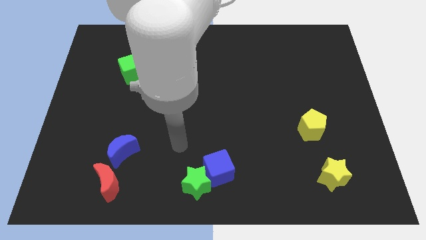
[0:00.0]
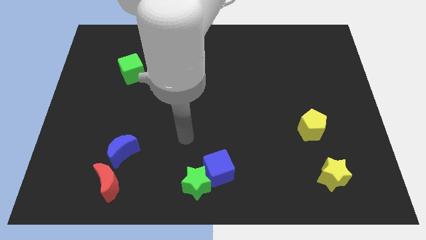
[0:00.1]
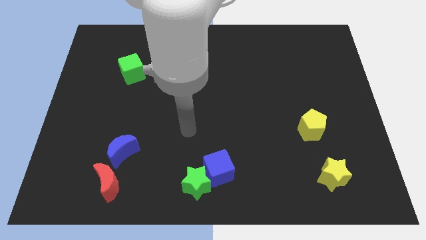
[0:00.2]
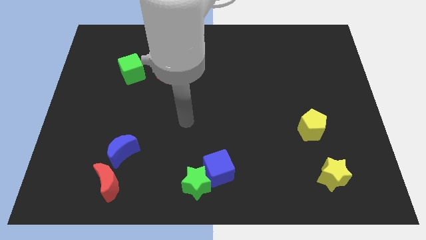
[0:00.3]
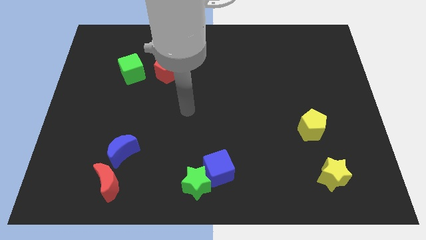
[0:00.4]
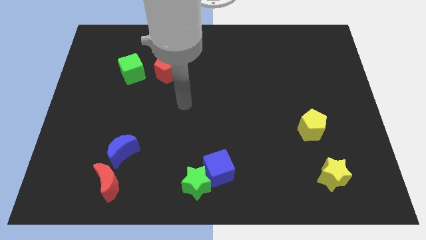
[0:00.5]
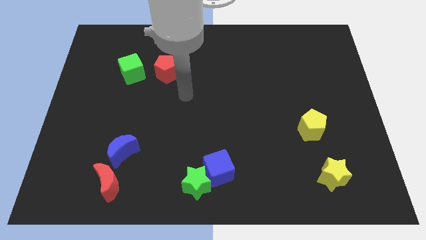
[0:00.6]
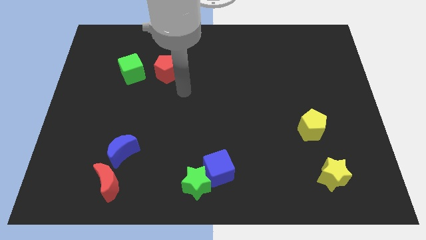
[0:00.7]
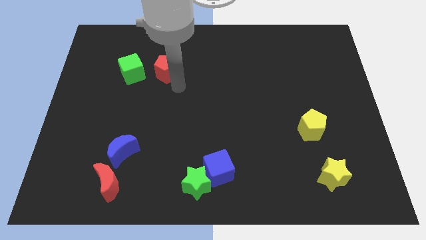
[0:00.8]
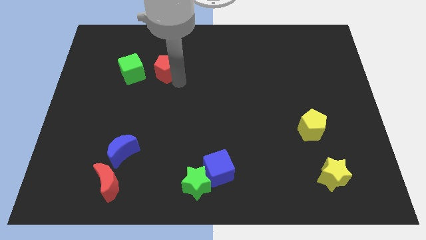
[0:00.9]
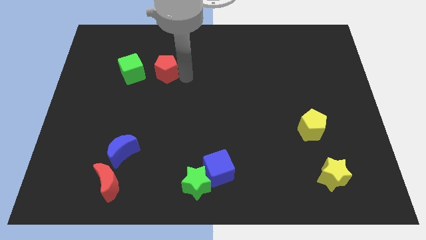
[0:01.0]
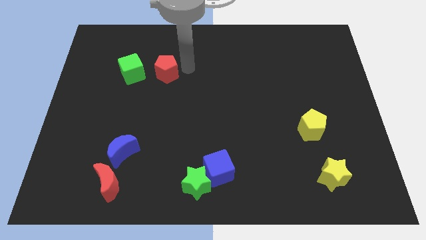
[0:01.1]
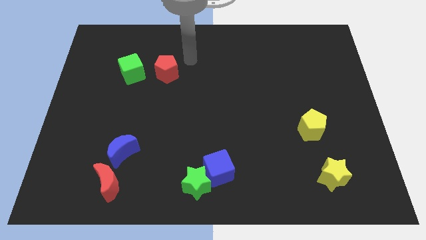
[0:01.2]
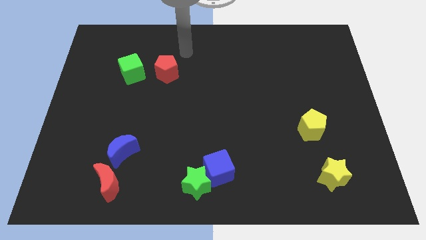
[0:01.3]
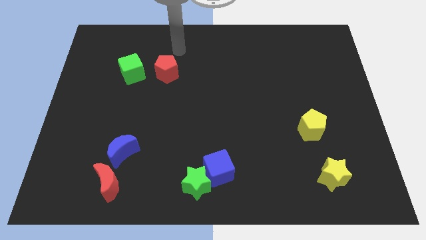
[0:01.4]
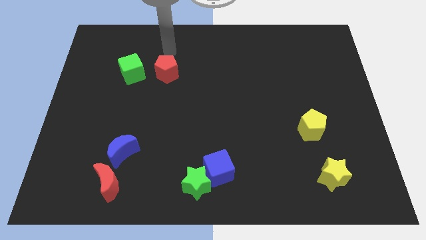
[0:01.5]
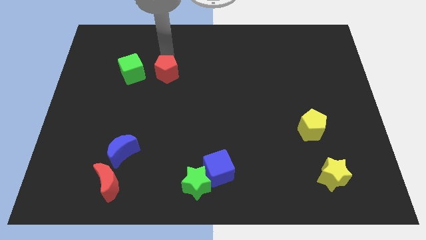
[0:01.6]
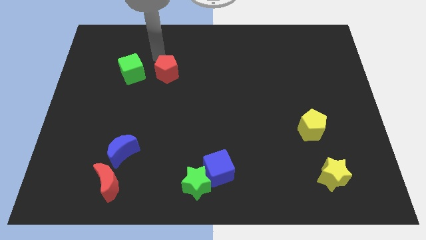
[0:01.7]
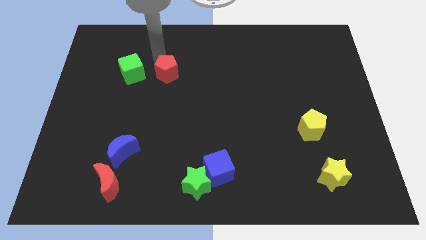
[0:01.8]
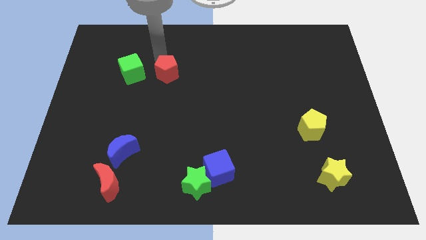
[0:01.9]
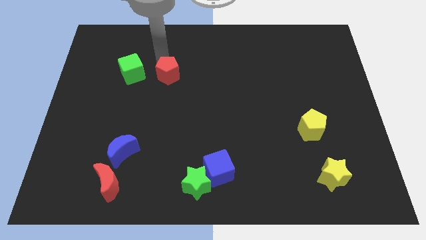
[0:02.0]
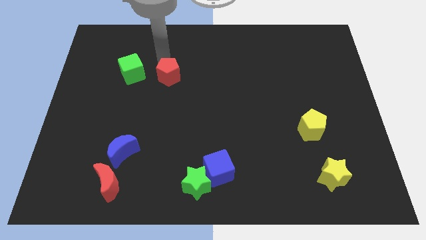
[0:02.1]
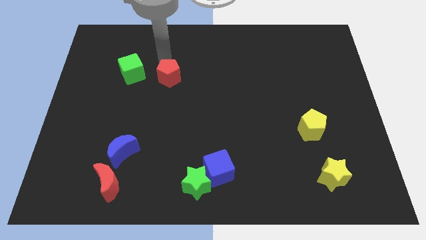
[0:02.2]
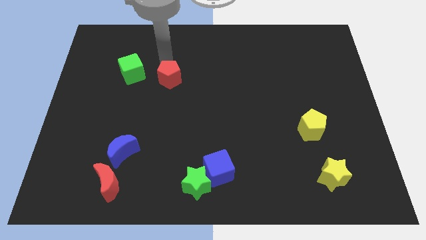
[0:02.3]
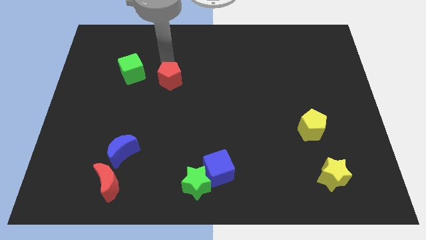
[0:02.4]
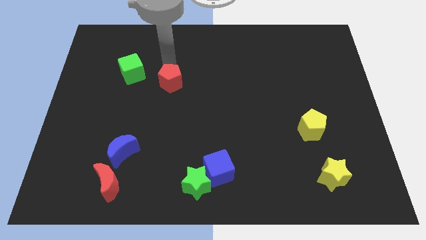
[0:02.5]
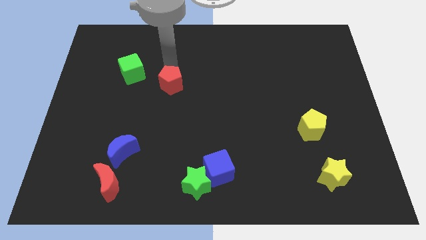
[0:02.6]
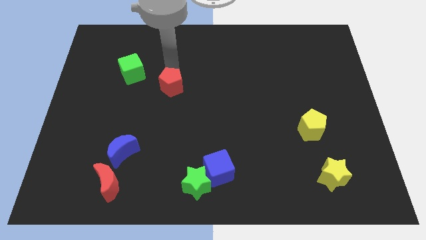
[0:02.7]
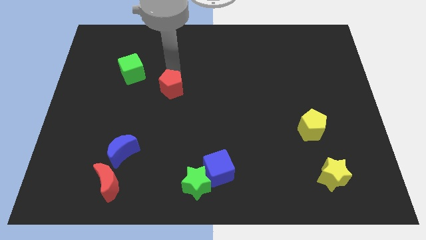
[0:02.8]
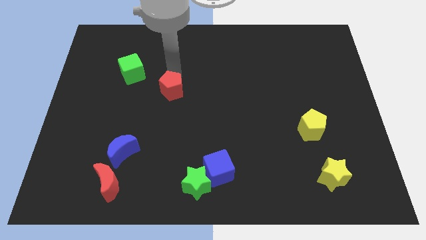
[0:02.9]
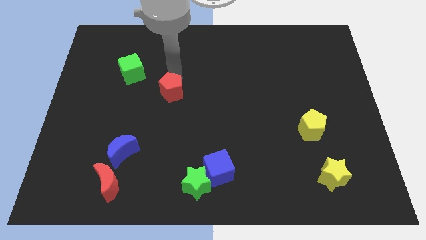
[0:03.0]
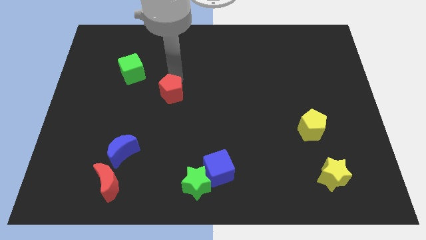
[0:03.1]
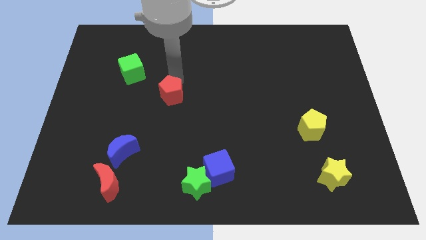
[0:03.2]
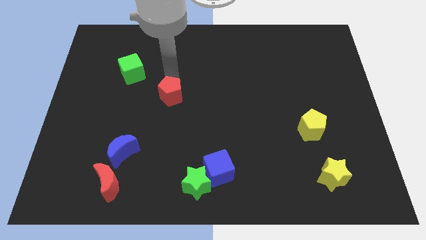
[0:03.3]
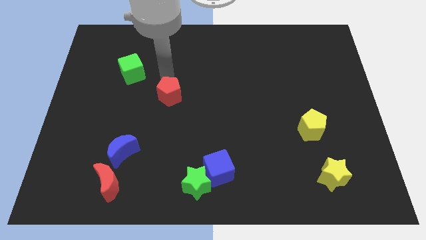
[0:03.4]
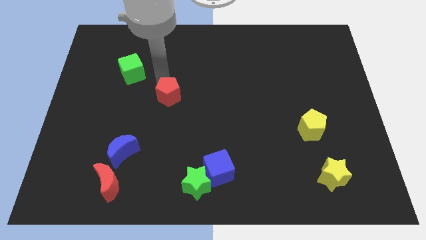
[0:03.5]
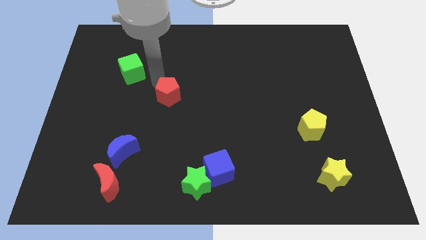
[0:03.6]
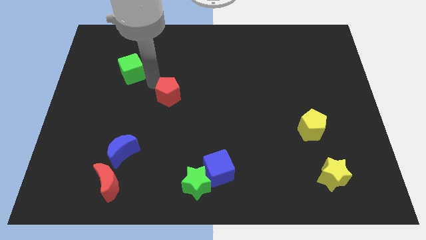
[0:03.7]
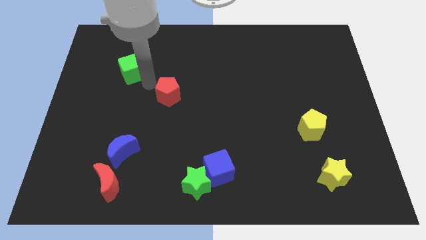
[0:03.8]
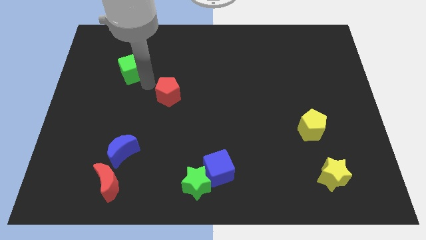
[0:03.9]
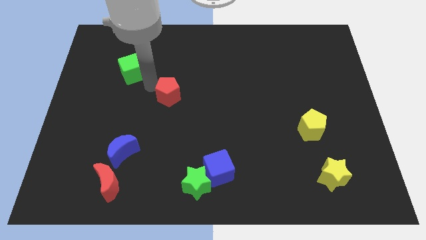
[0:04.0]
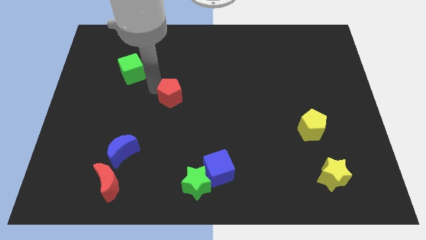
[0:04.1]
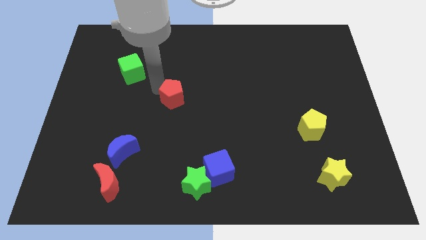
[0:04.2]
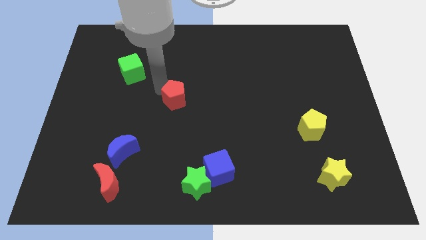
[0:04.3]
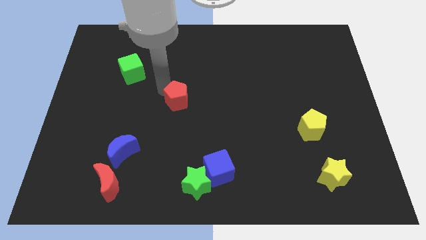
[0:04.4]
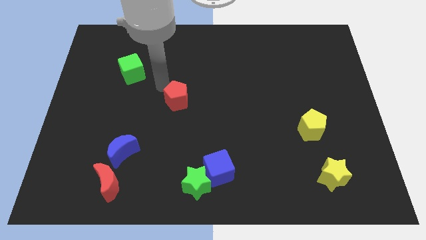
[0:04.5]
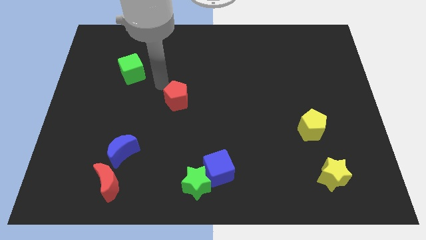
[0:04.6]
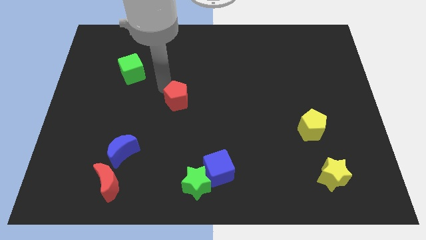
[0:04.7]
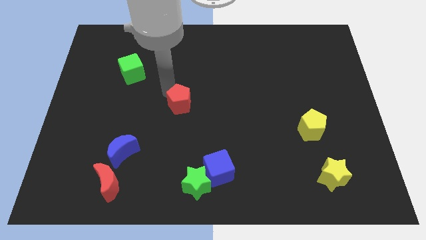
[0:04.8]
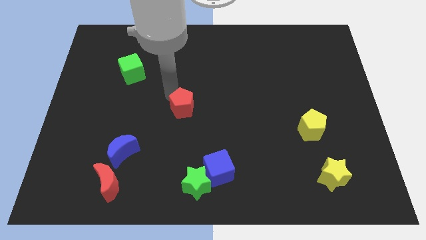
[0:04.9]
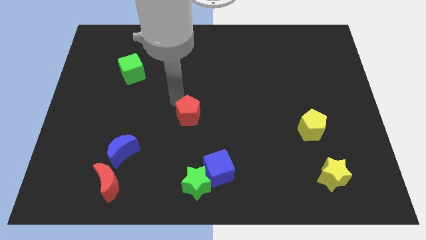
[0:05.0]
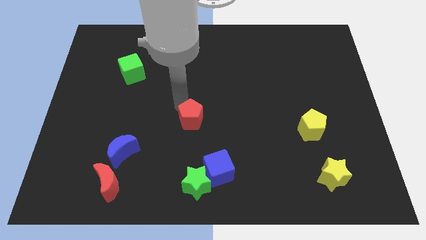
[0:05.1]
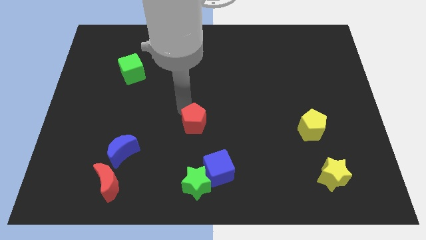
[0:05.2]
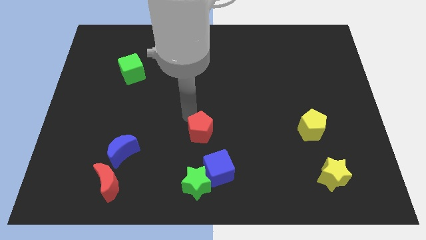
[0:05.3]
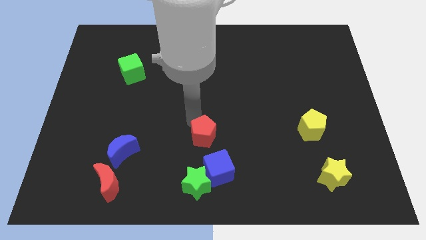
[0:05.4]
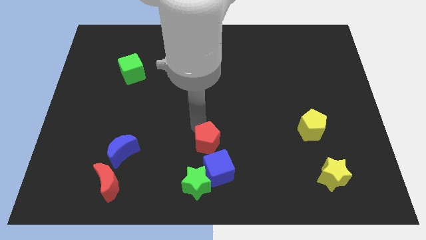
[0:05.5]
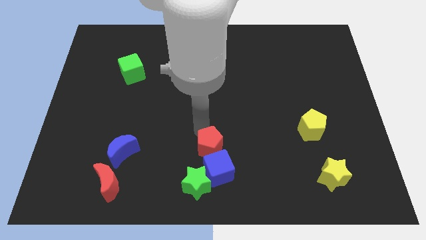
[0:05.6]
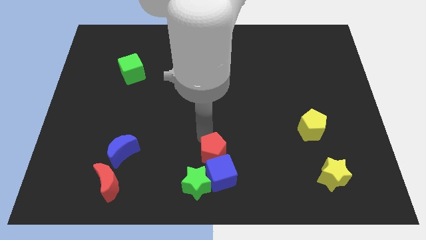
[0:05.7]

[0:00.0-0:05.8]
push the red pentagon to the blue cube

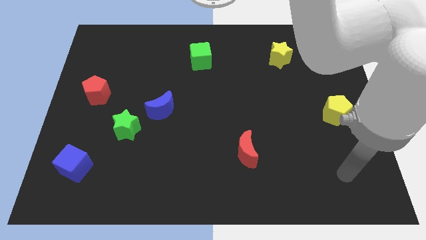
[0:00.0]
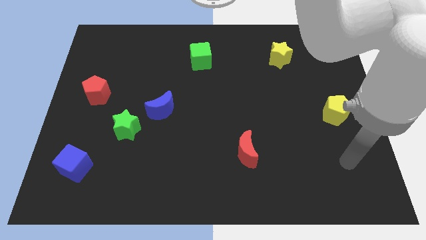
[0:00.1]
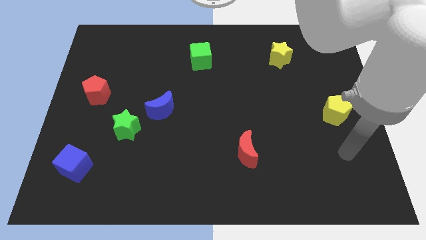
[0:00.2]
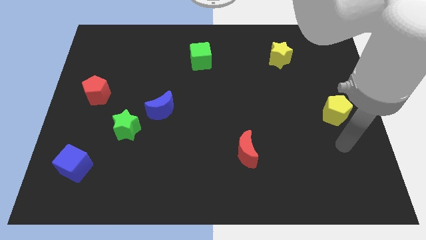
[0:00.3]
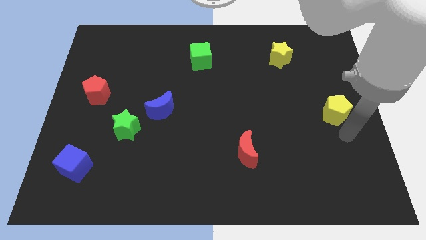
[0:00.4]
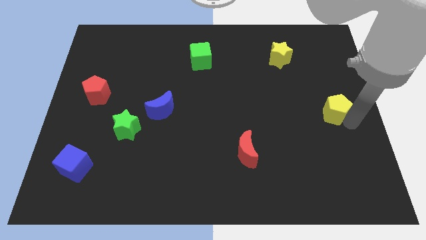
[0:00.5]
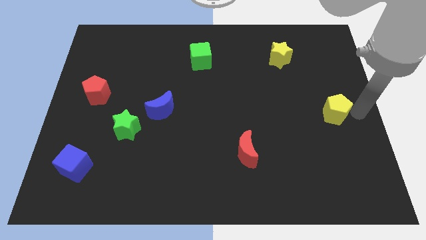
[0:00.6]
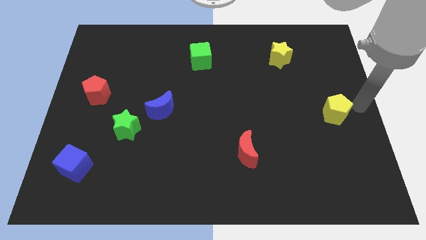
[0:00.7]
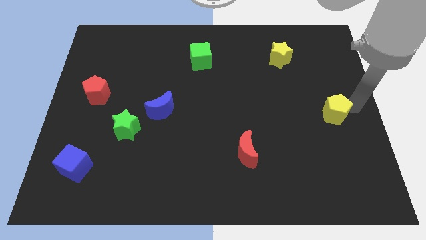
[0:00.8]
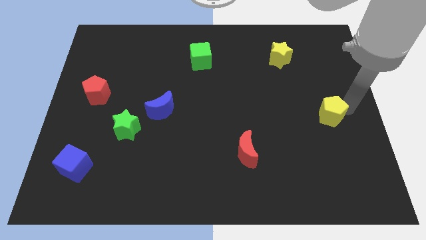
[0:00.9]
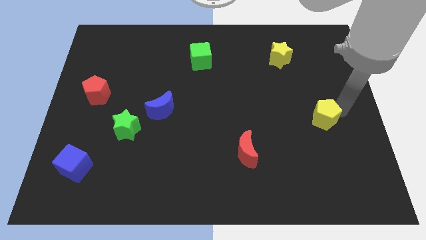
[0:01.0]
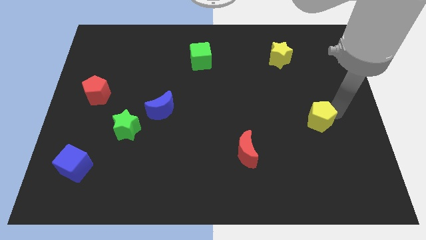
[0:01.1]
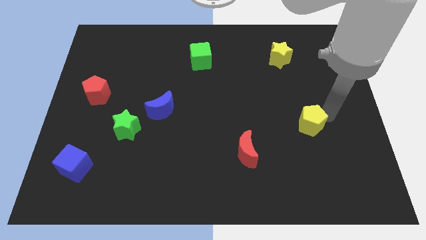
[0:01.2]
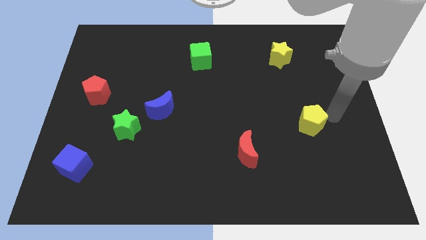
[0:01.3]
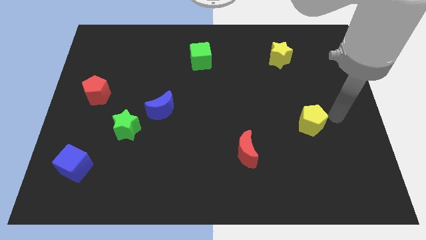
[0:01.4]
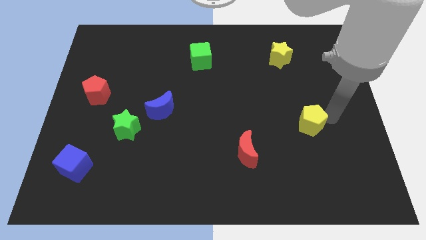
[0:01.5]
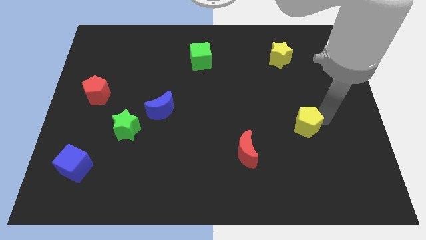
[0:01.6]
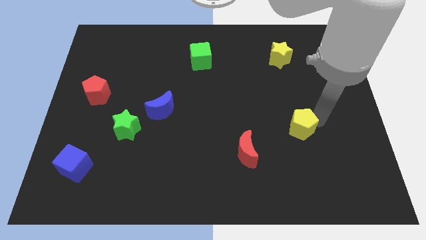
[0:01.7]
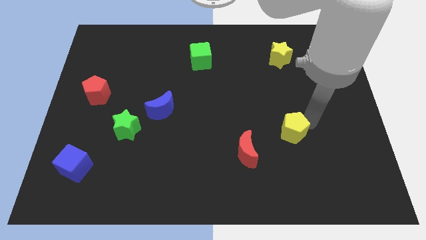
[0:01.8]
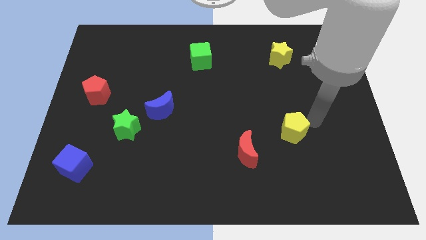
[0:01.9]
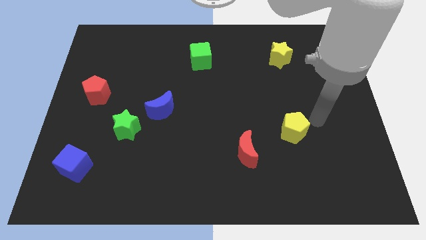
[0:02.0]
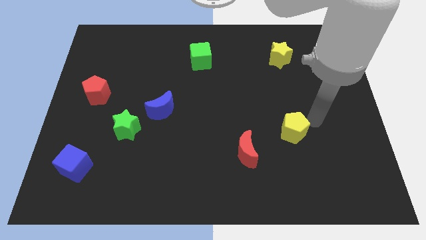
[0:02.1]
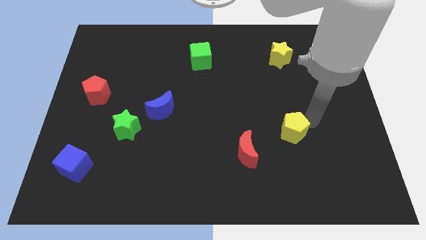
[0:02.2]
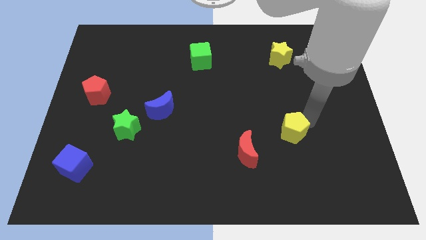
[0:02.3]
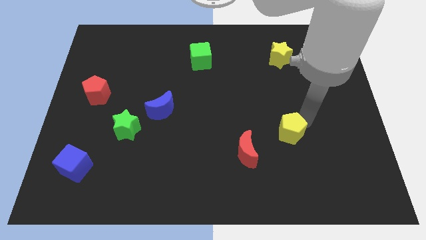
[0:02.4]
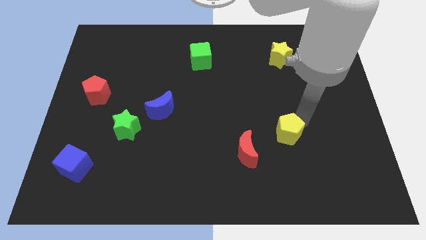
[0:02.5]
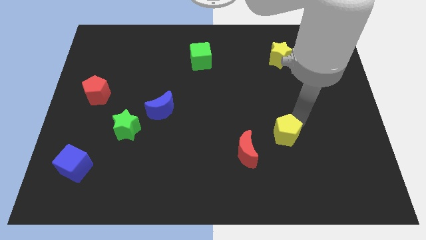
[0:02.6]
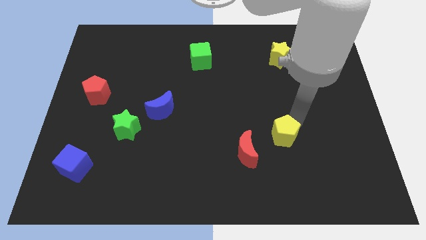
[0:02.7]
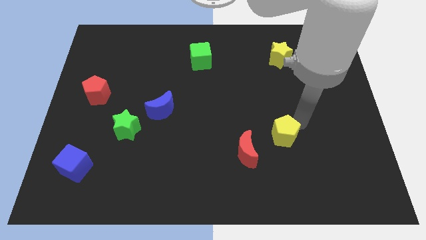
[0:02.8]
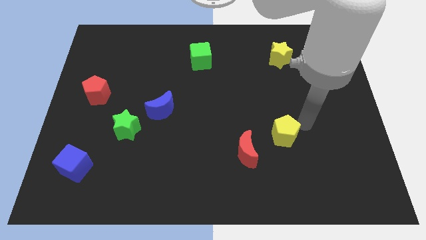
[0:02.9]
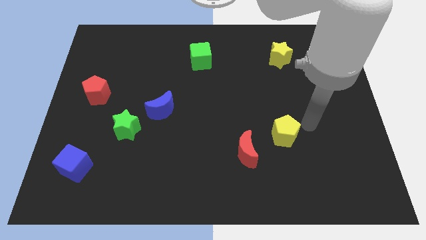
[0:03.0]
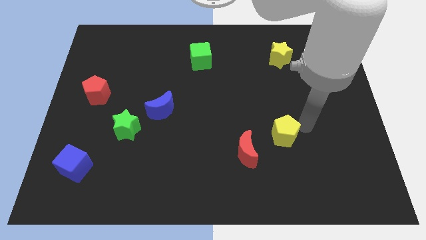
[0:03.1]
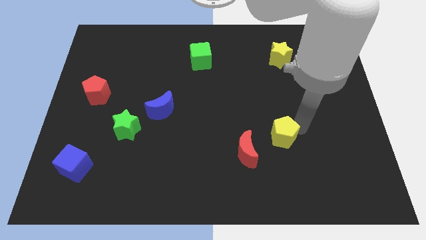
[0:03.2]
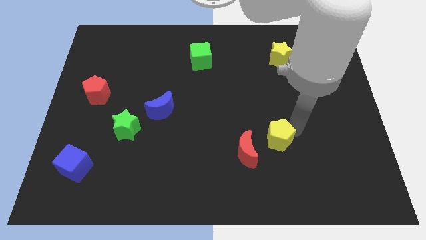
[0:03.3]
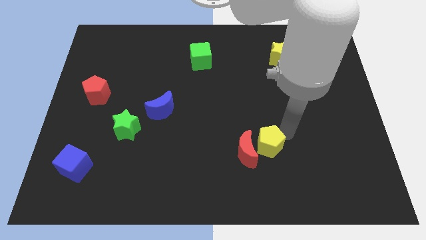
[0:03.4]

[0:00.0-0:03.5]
move the yellow pentagon to the red moon
